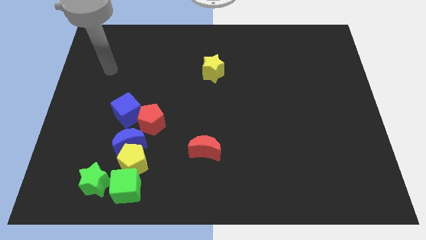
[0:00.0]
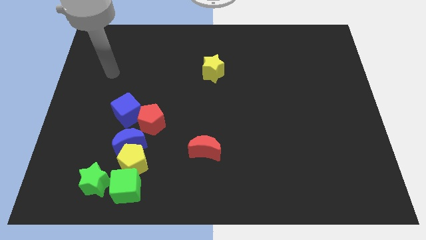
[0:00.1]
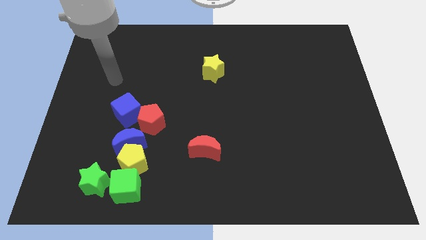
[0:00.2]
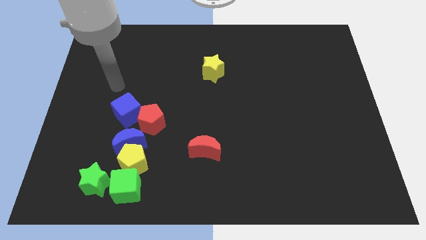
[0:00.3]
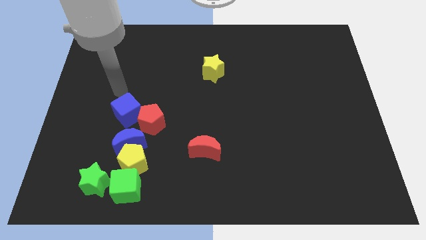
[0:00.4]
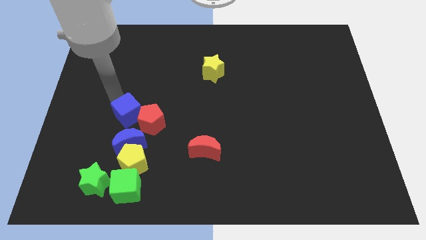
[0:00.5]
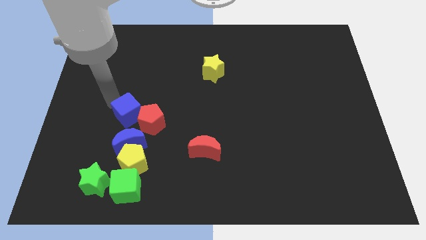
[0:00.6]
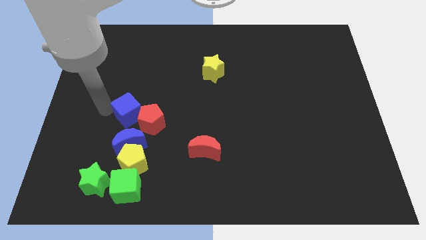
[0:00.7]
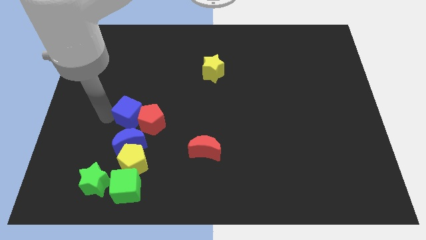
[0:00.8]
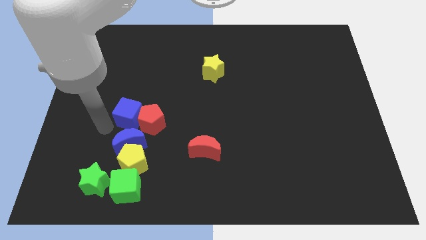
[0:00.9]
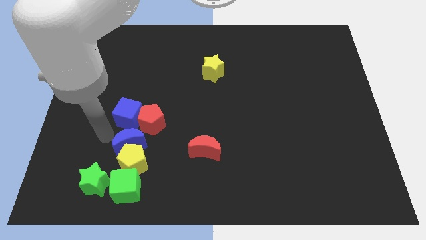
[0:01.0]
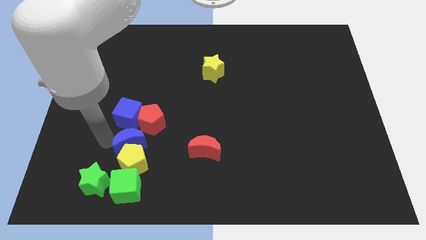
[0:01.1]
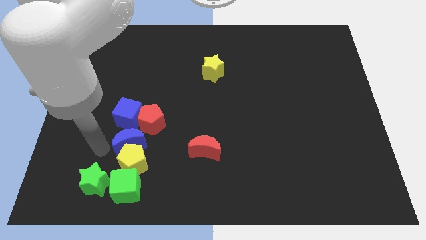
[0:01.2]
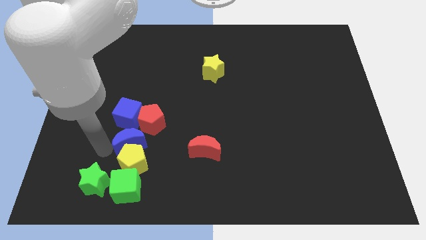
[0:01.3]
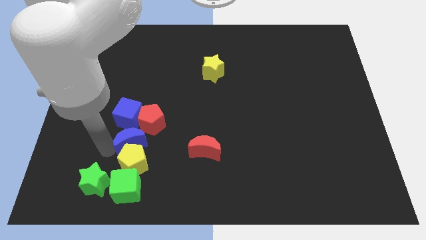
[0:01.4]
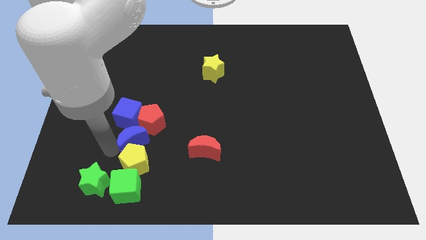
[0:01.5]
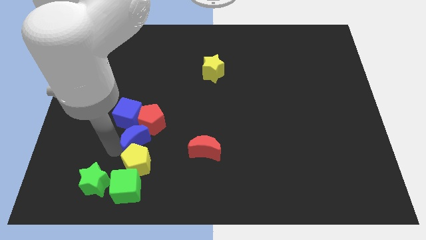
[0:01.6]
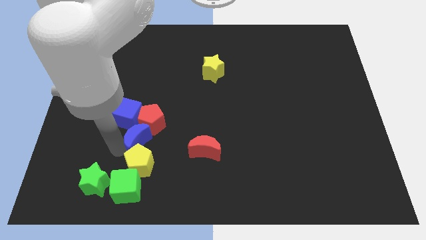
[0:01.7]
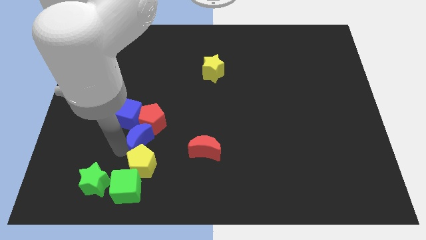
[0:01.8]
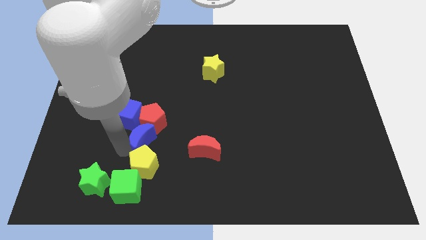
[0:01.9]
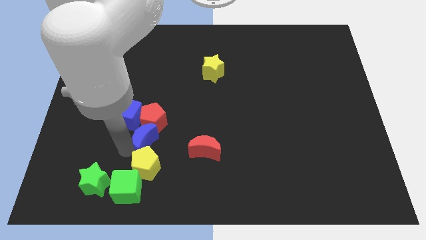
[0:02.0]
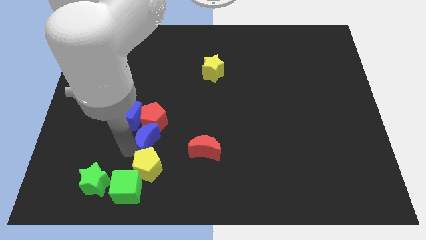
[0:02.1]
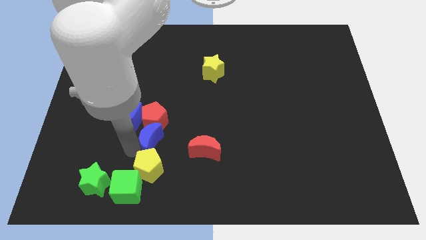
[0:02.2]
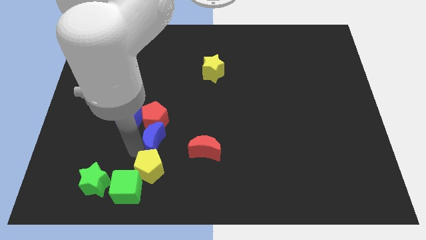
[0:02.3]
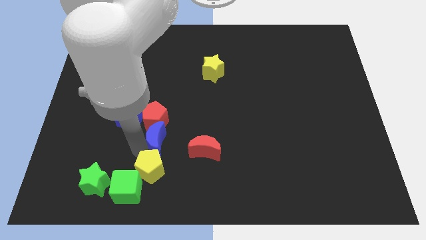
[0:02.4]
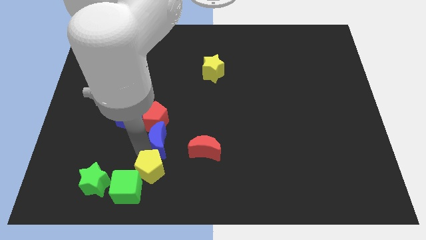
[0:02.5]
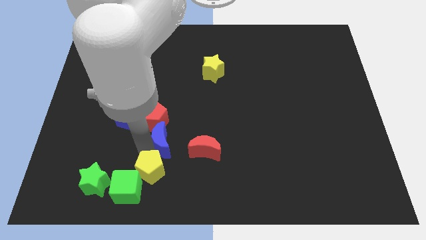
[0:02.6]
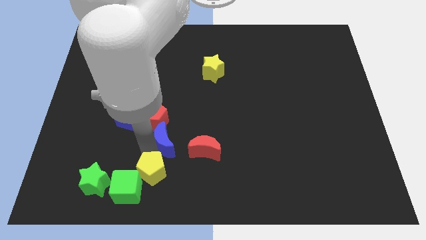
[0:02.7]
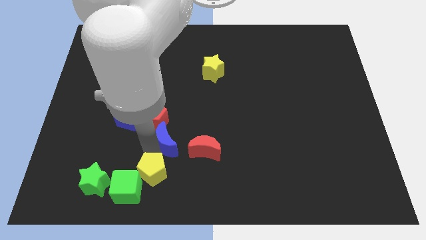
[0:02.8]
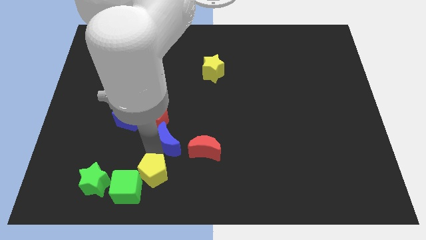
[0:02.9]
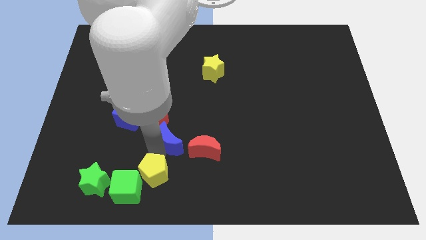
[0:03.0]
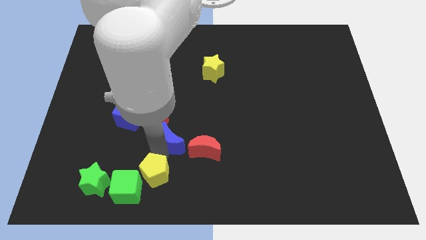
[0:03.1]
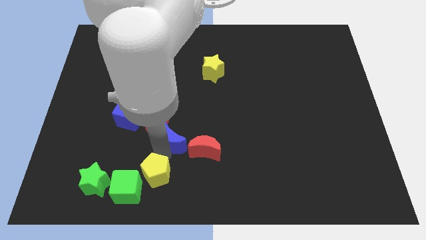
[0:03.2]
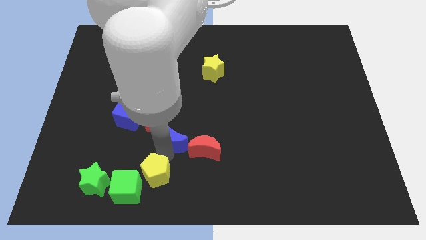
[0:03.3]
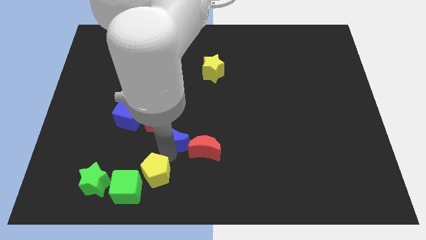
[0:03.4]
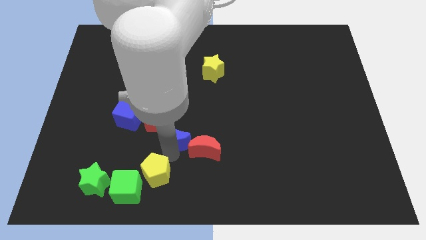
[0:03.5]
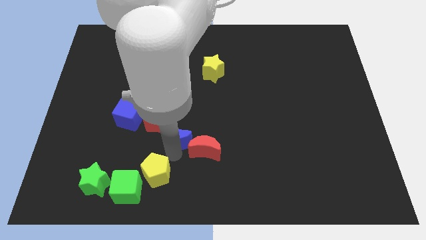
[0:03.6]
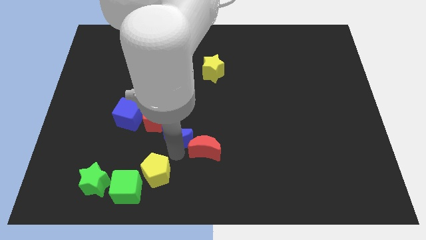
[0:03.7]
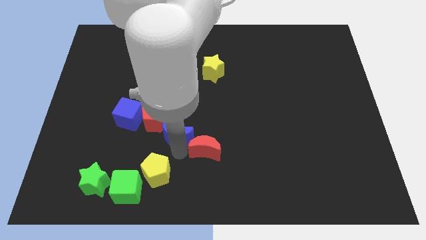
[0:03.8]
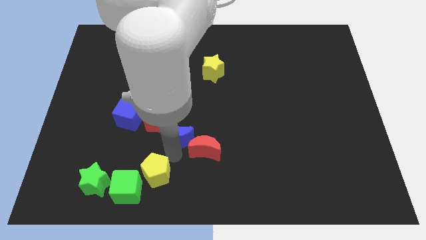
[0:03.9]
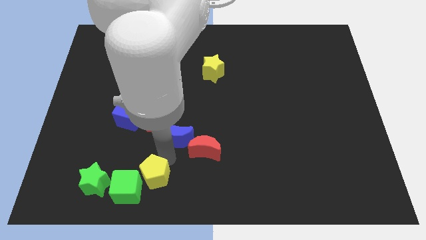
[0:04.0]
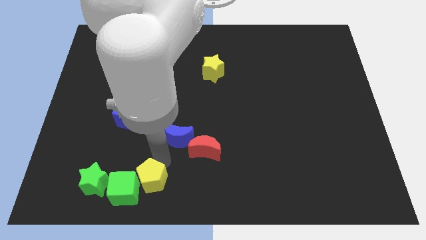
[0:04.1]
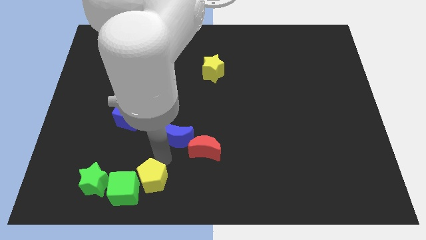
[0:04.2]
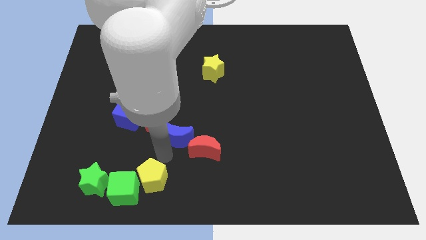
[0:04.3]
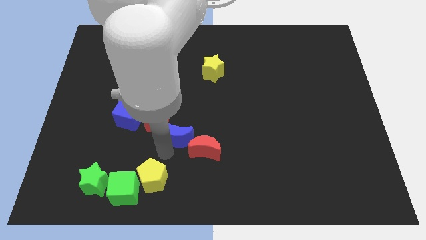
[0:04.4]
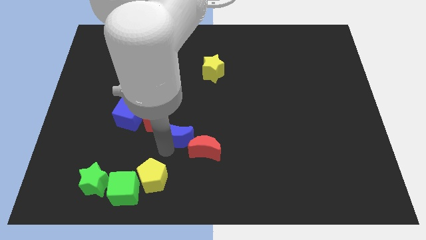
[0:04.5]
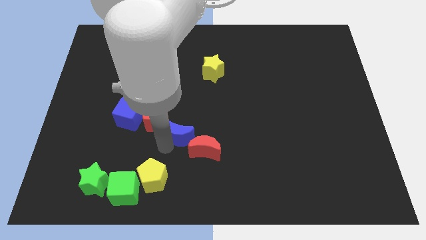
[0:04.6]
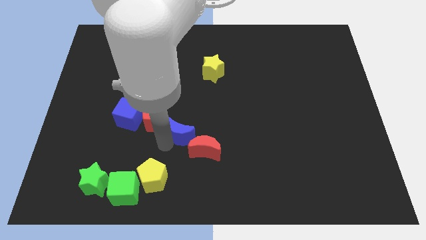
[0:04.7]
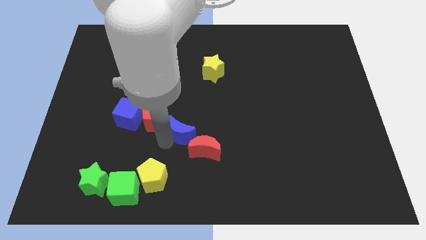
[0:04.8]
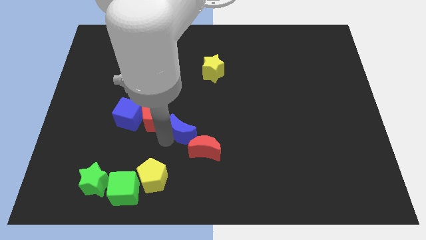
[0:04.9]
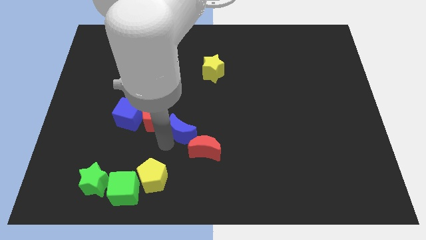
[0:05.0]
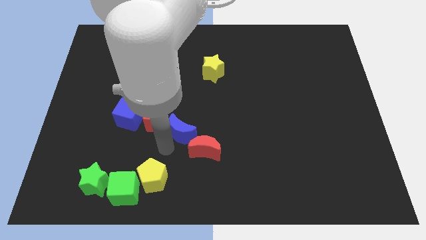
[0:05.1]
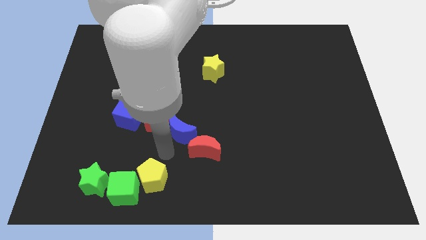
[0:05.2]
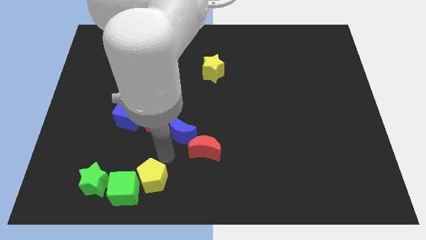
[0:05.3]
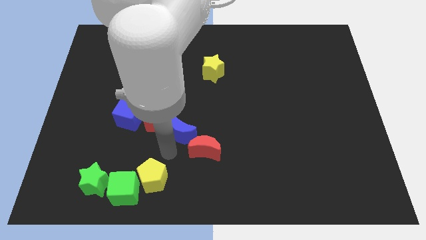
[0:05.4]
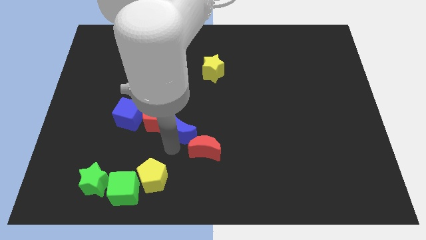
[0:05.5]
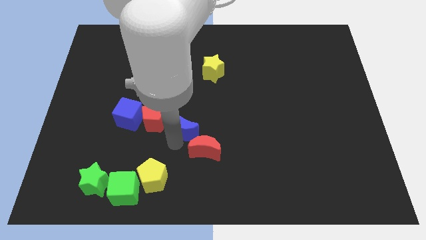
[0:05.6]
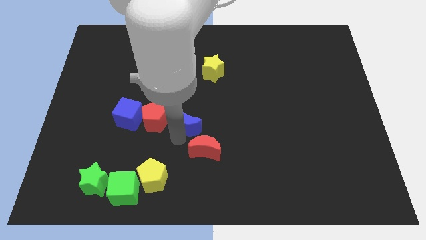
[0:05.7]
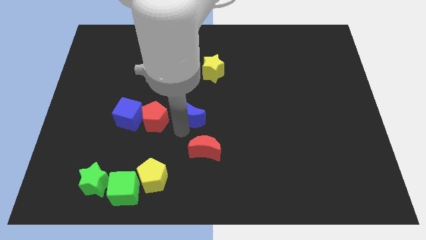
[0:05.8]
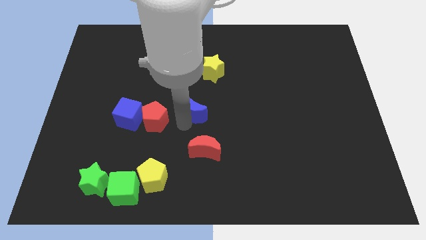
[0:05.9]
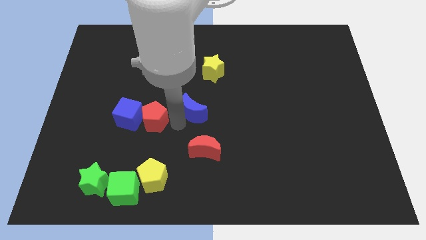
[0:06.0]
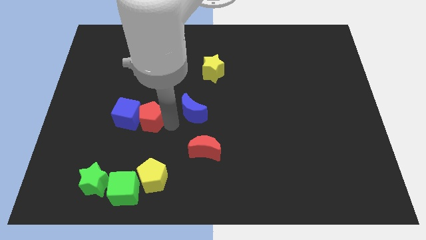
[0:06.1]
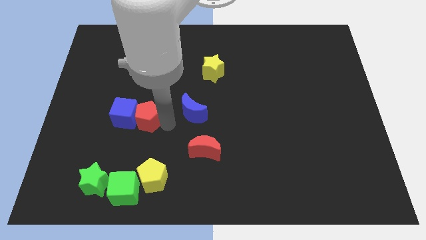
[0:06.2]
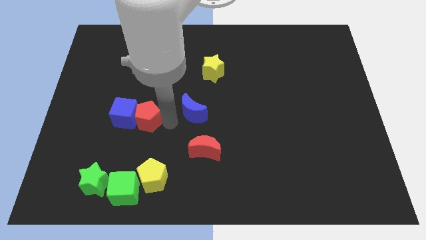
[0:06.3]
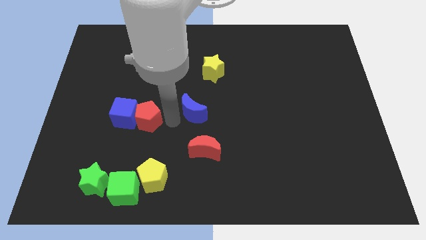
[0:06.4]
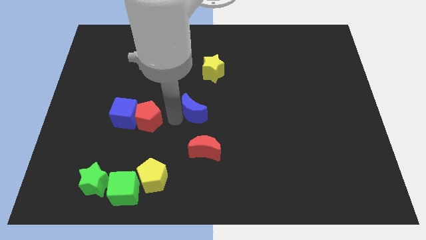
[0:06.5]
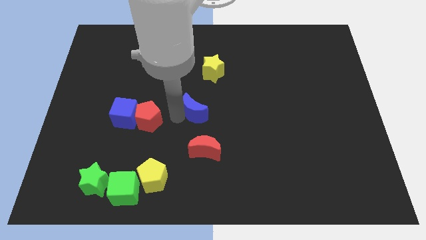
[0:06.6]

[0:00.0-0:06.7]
put the blue moon to the bottom side of the yellow star

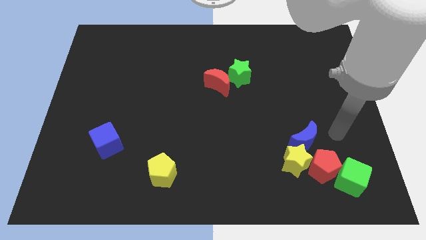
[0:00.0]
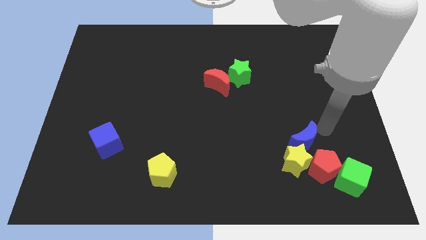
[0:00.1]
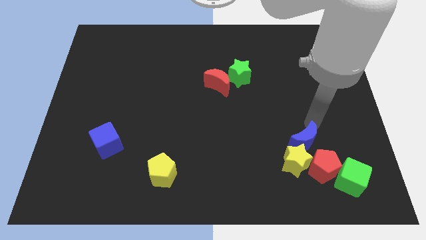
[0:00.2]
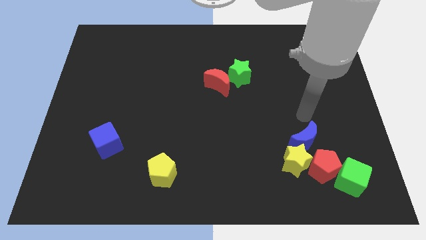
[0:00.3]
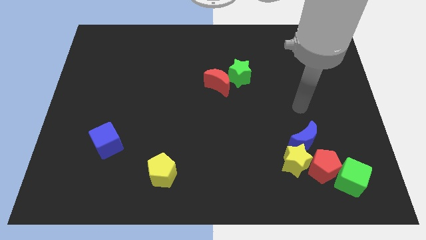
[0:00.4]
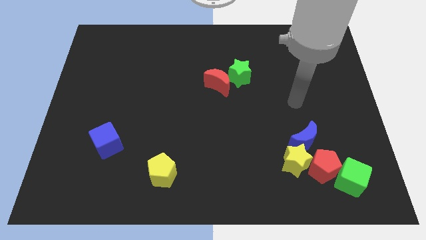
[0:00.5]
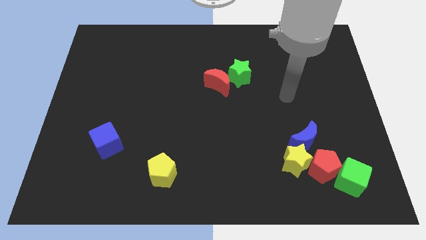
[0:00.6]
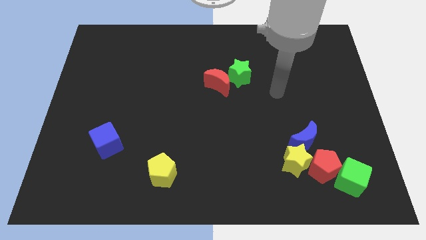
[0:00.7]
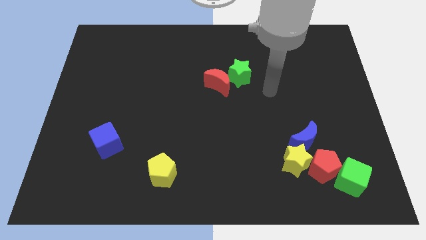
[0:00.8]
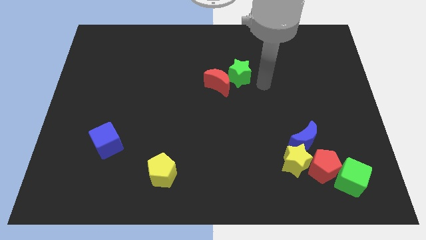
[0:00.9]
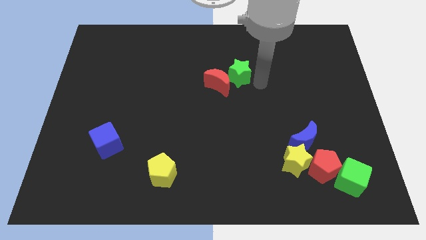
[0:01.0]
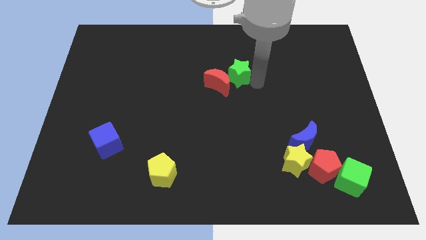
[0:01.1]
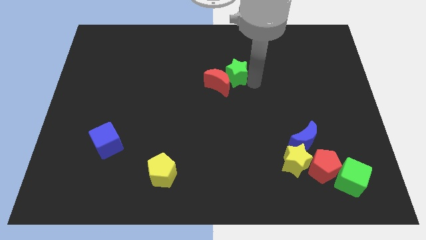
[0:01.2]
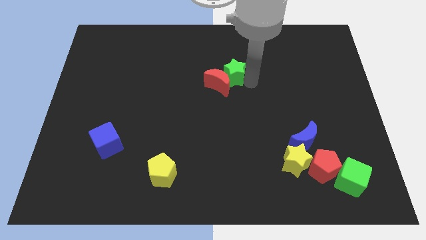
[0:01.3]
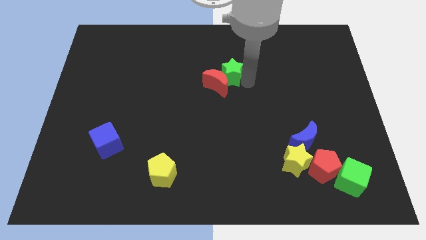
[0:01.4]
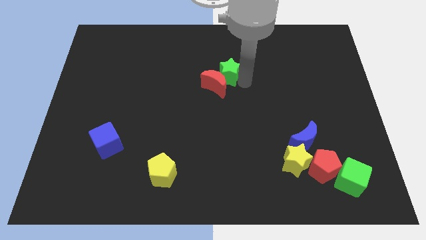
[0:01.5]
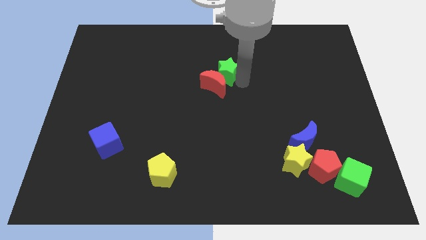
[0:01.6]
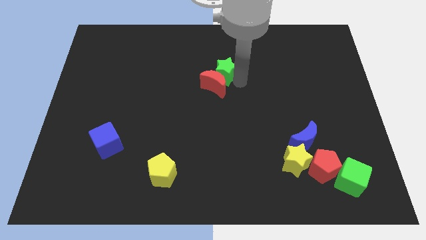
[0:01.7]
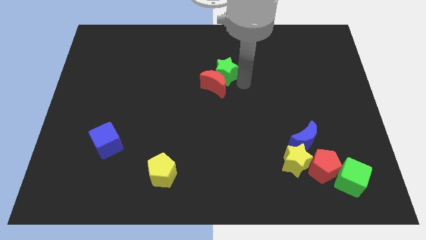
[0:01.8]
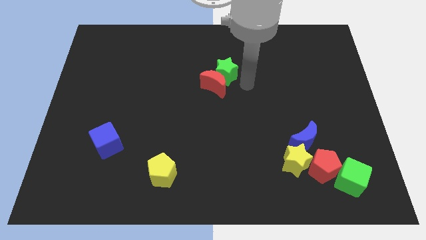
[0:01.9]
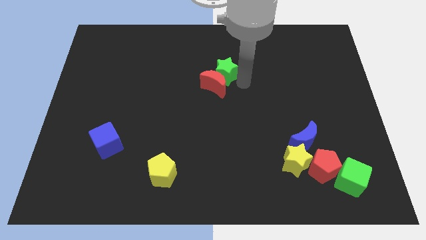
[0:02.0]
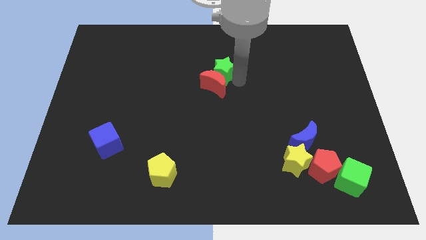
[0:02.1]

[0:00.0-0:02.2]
move the green star to the top left of the red moon
